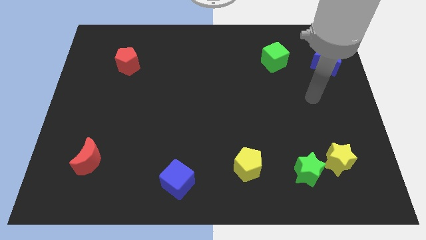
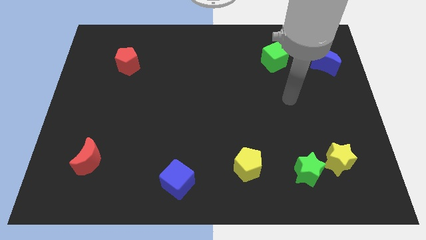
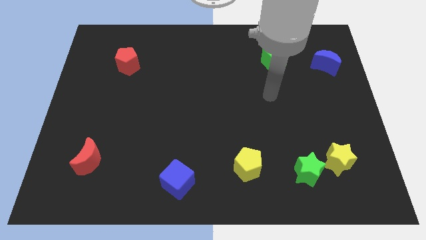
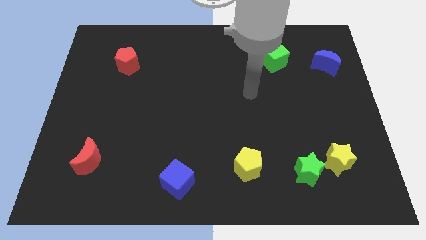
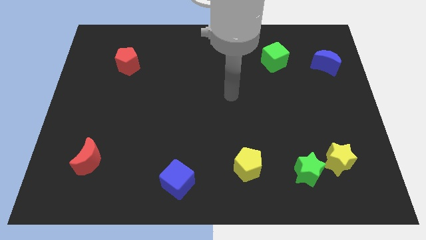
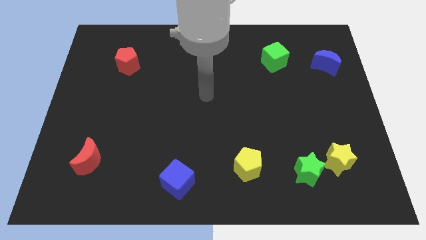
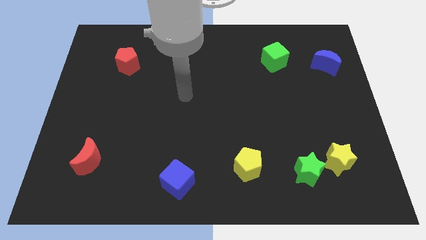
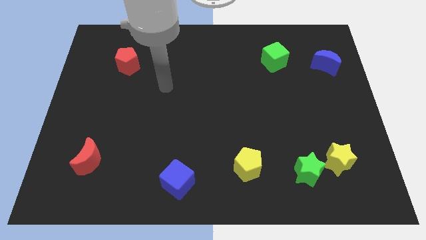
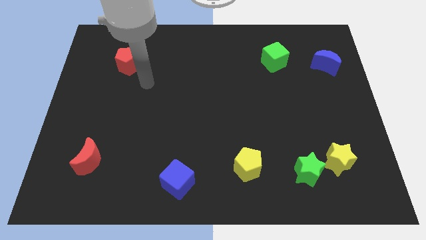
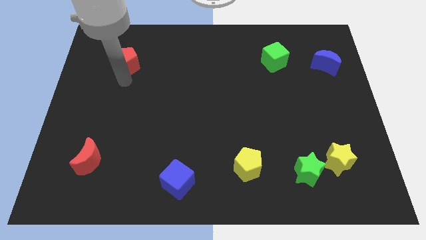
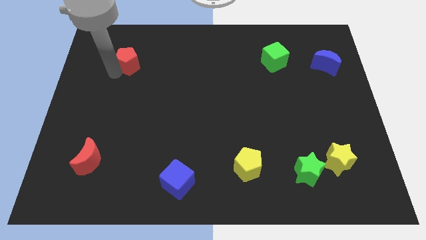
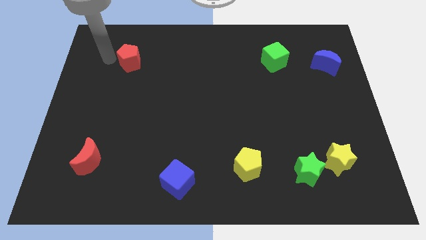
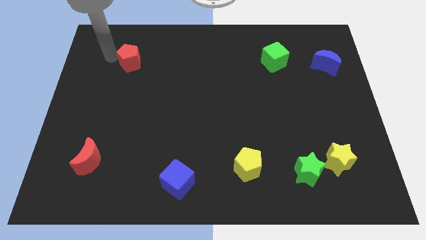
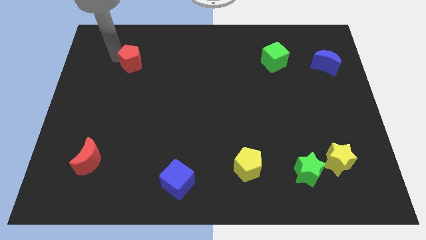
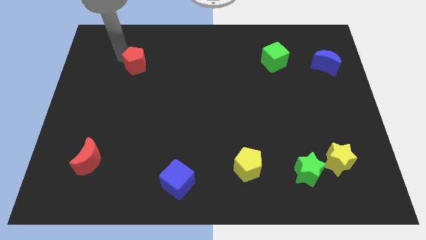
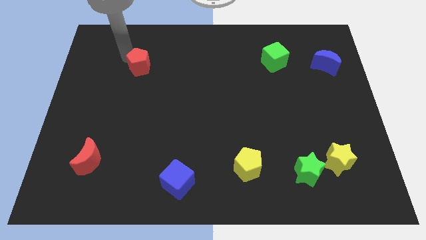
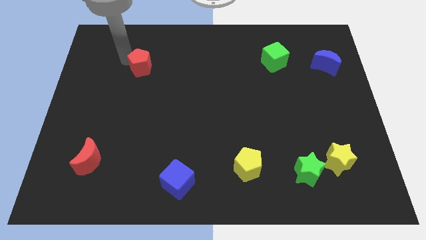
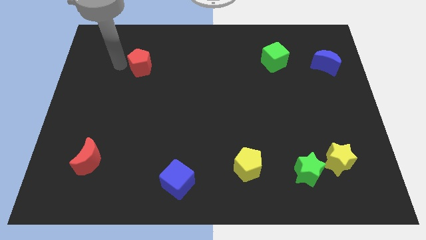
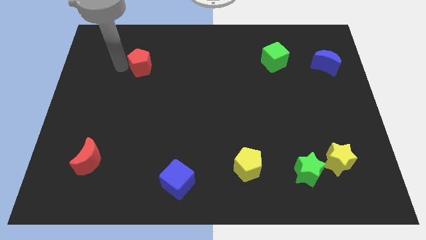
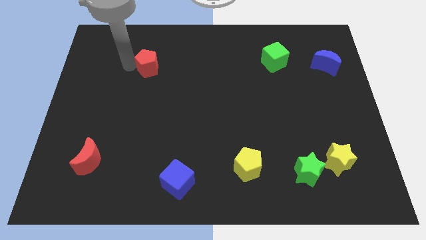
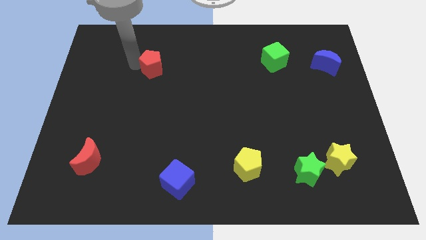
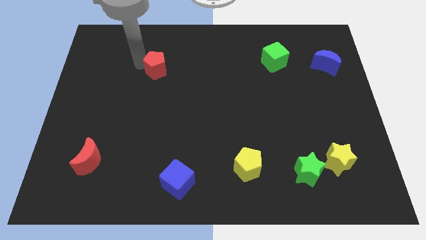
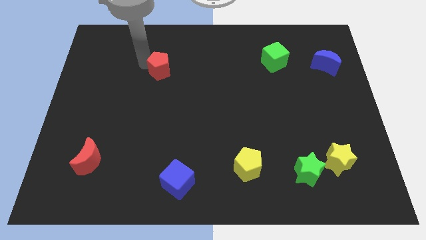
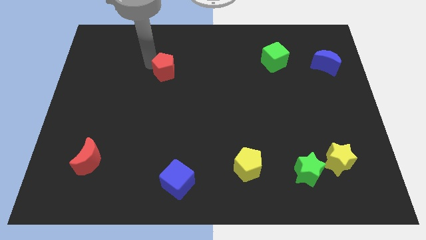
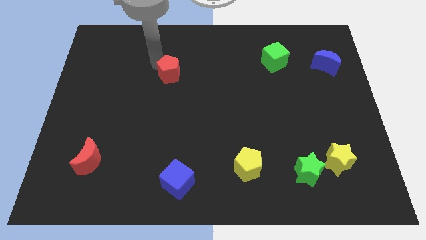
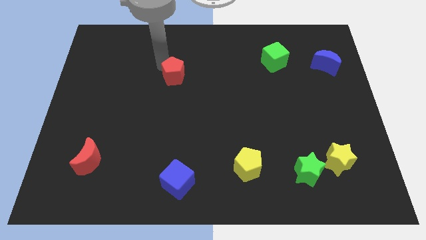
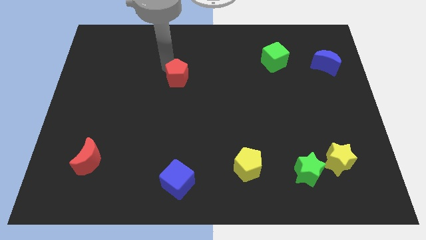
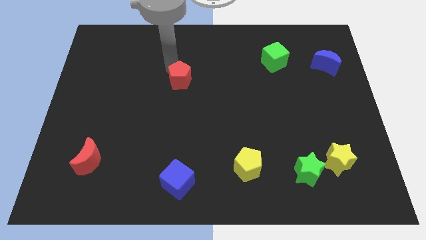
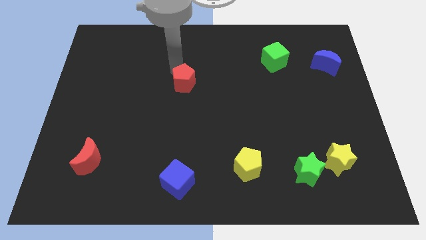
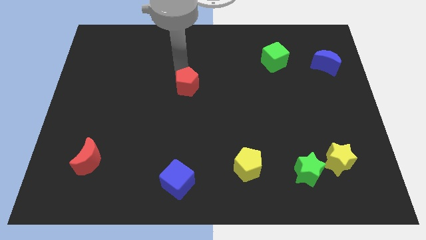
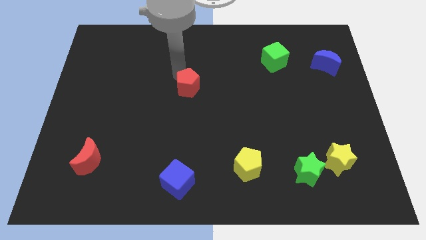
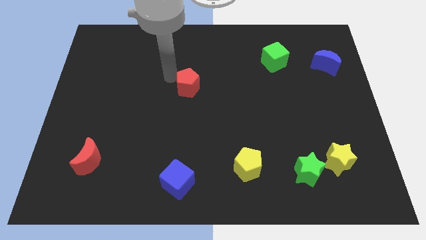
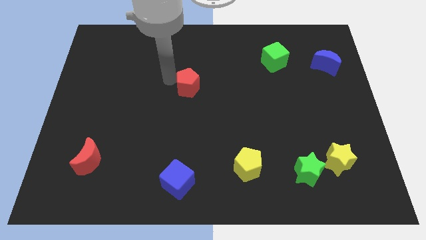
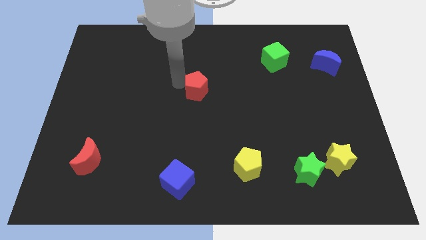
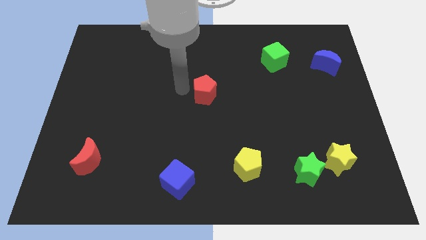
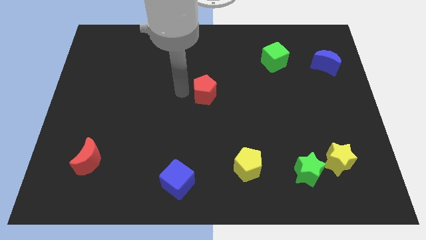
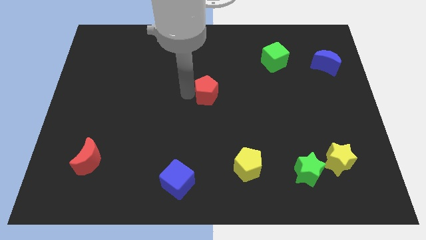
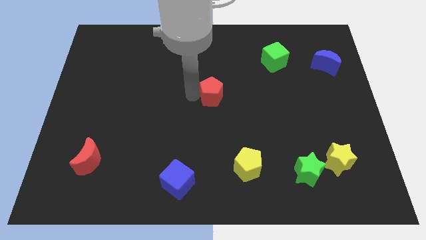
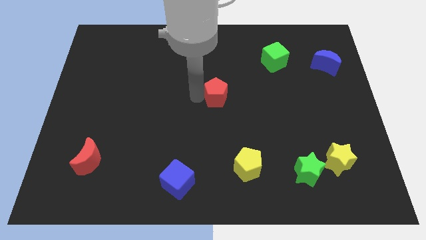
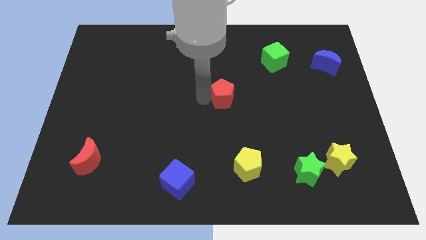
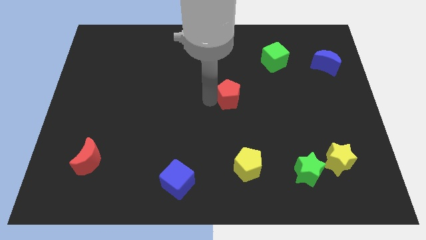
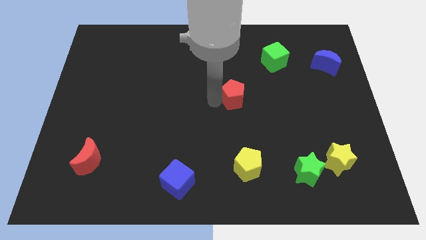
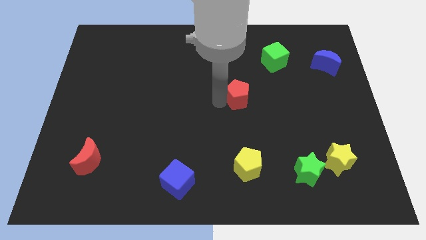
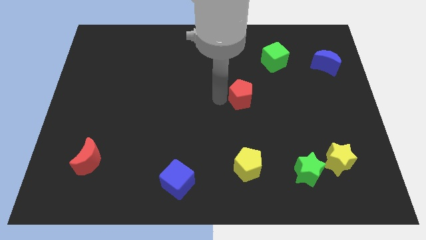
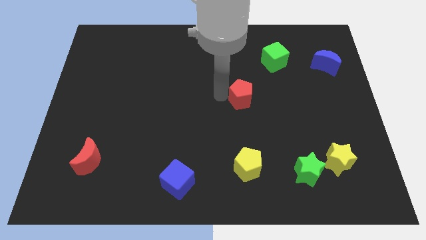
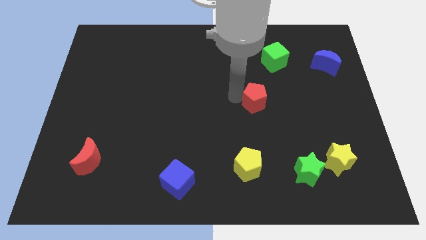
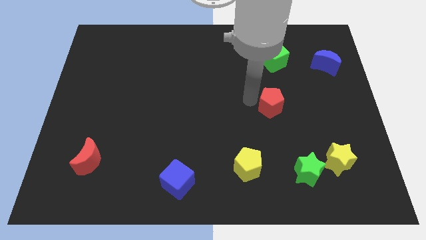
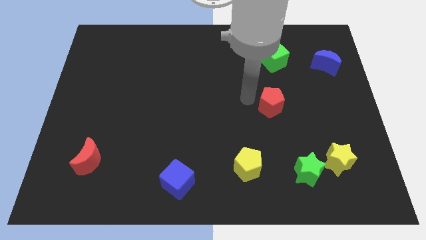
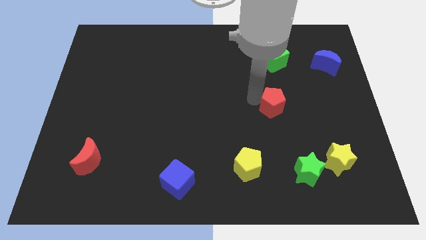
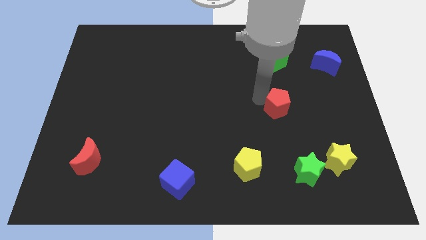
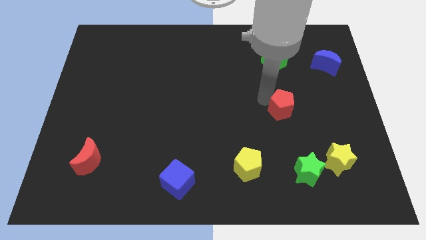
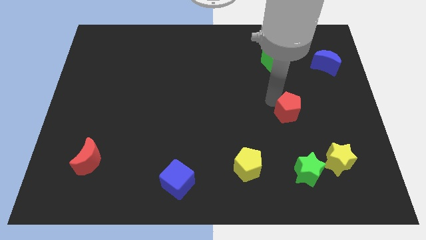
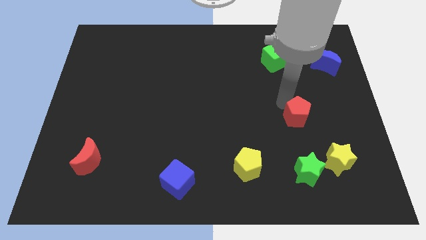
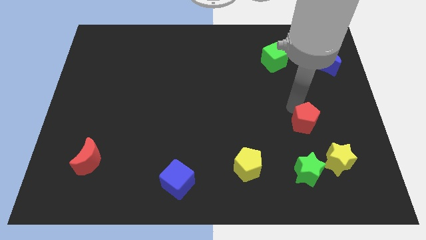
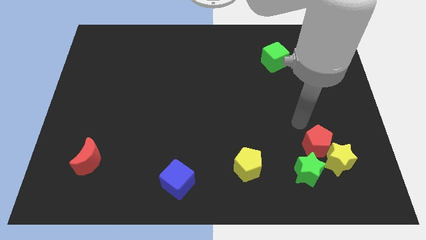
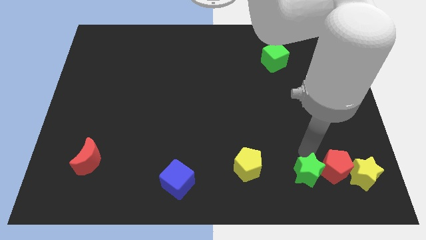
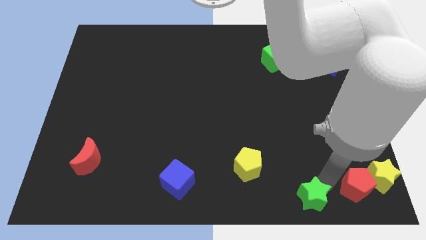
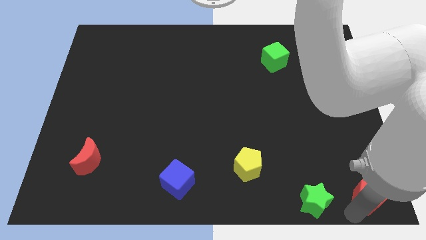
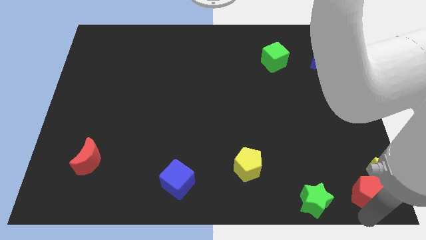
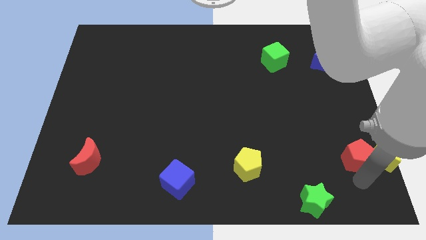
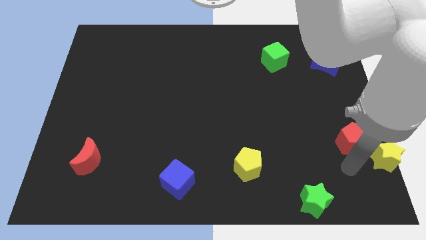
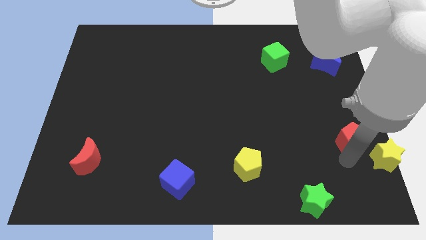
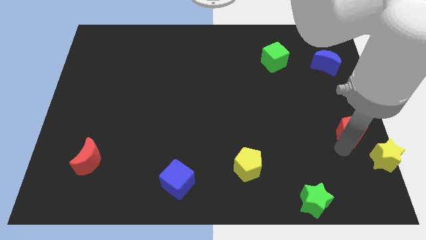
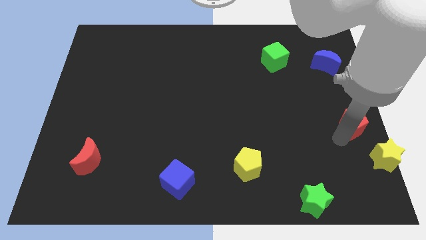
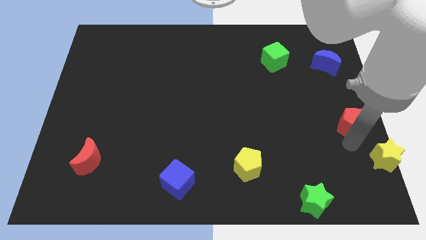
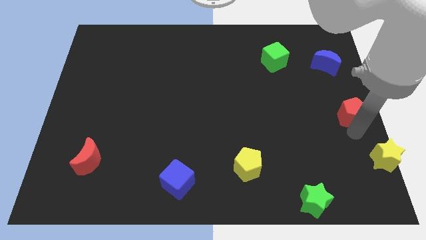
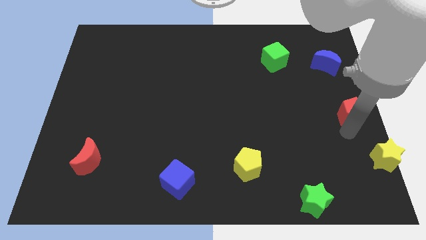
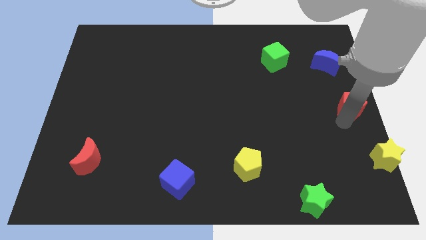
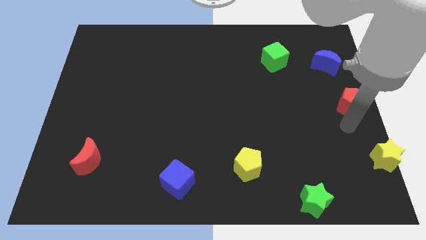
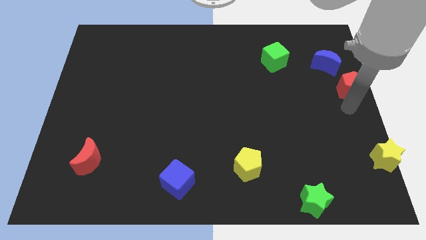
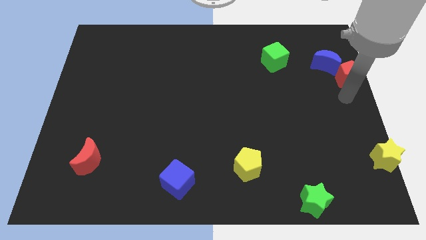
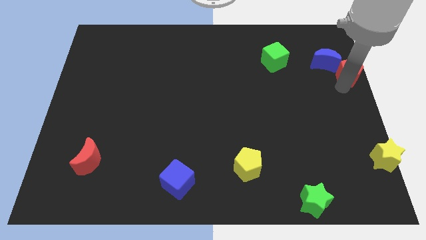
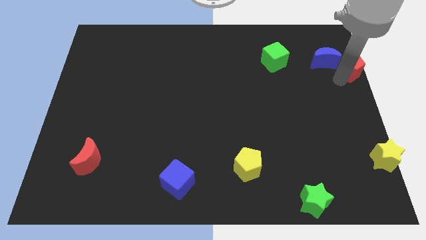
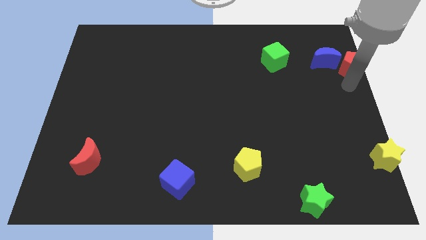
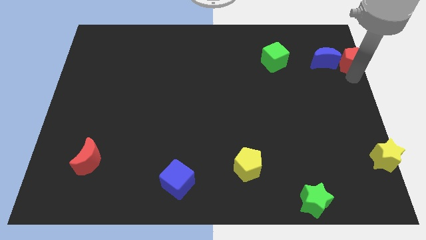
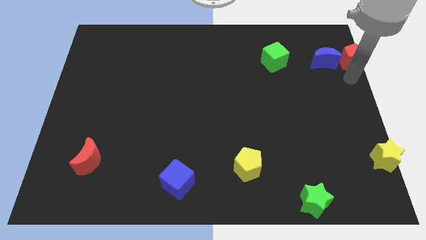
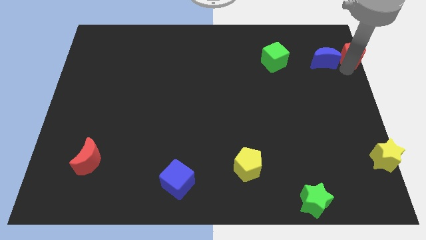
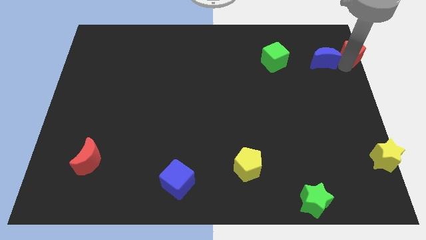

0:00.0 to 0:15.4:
slide the red pentagon to the top right of the board
